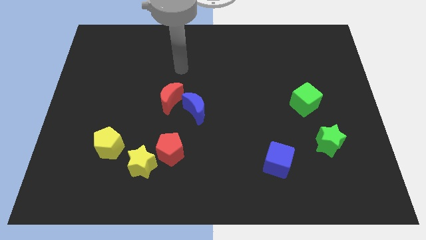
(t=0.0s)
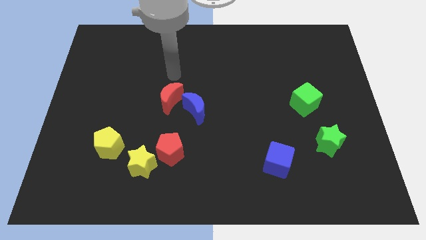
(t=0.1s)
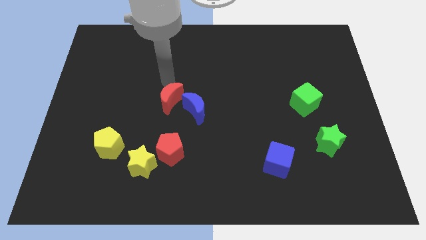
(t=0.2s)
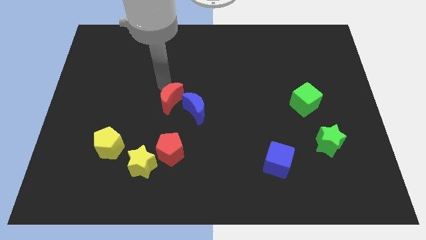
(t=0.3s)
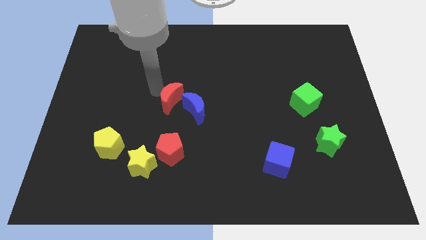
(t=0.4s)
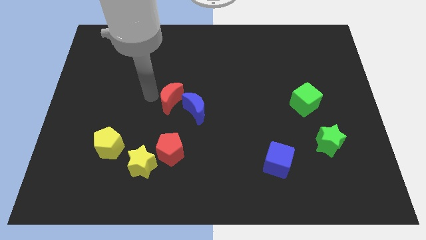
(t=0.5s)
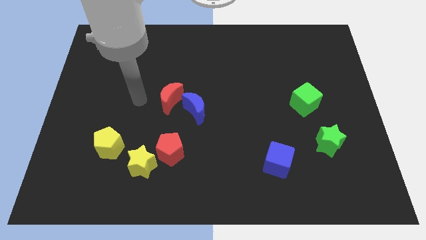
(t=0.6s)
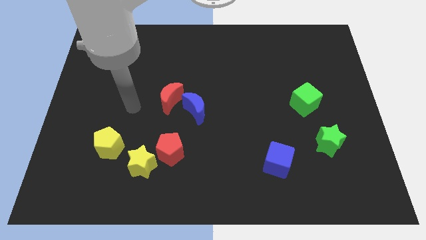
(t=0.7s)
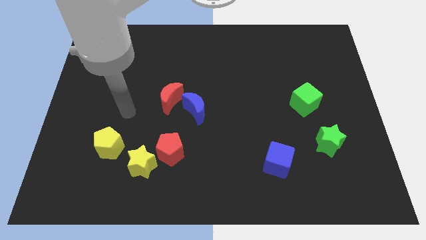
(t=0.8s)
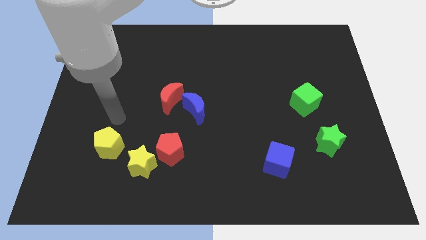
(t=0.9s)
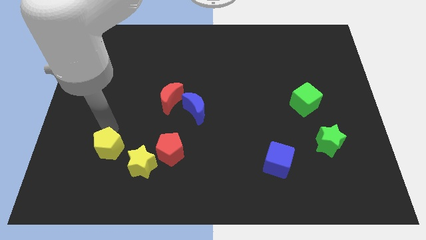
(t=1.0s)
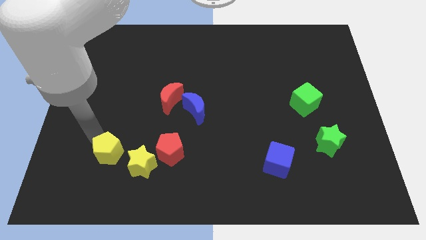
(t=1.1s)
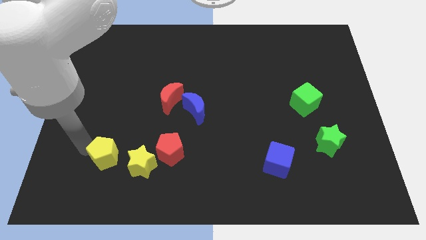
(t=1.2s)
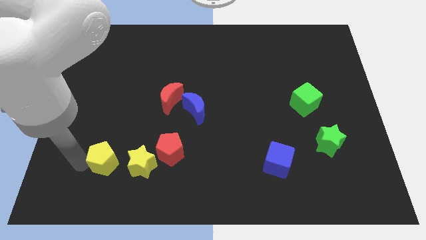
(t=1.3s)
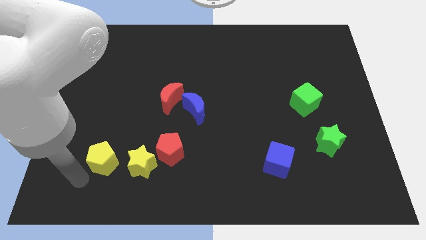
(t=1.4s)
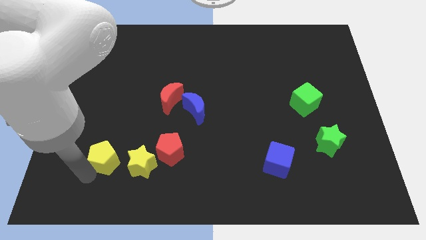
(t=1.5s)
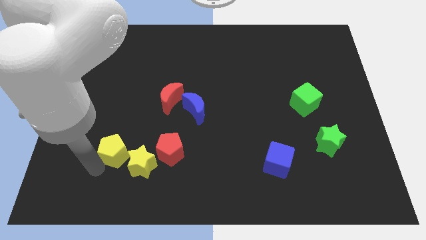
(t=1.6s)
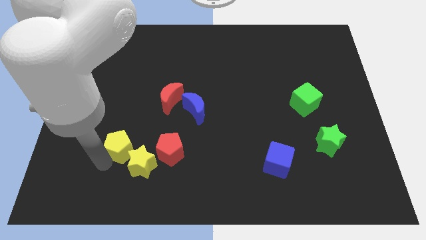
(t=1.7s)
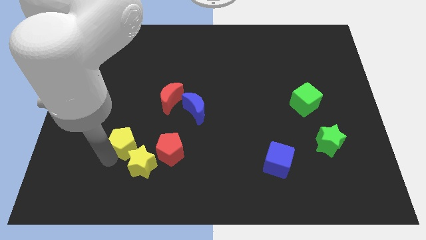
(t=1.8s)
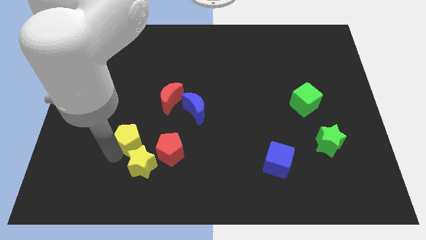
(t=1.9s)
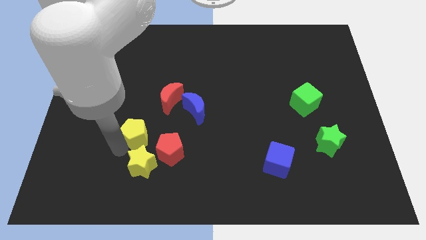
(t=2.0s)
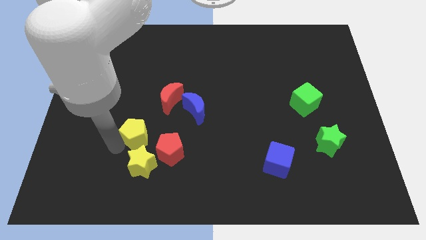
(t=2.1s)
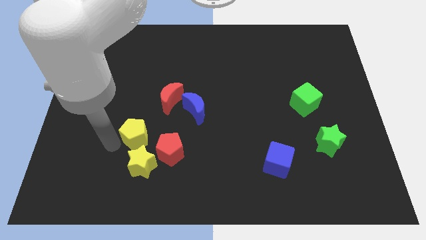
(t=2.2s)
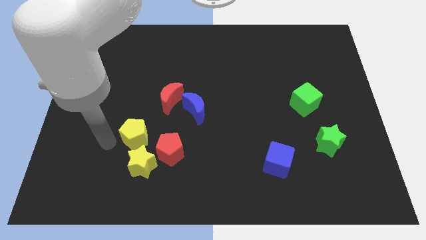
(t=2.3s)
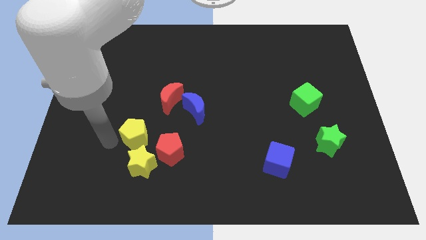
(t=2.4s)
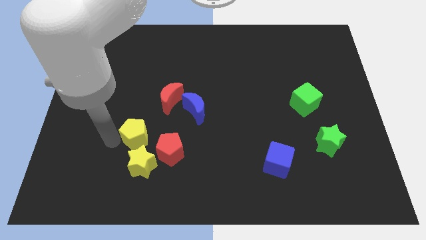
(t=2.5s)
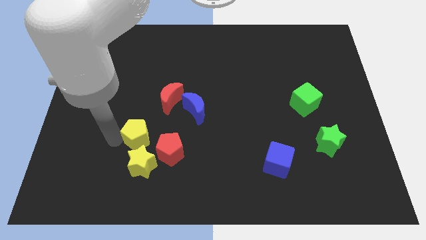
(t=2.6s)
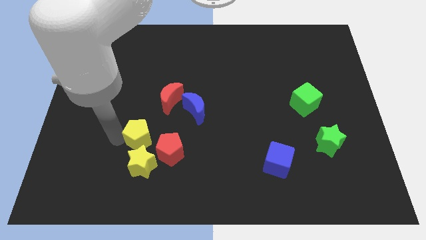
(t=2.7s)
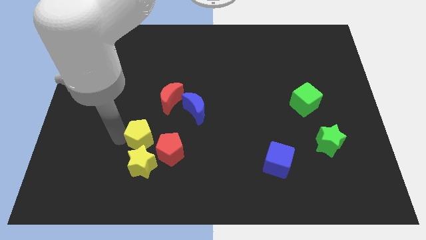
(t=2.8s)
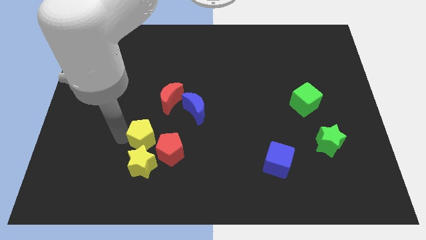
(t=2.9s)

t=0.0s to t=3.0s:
slightly slide the yellow pentagon to the right

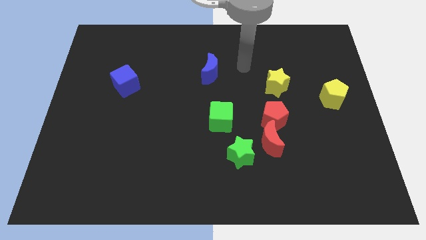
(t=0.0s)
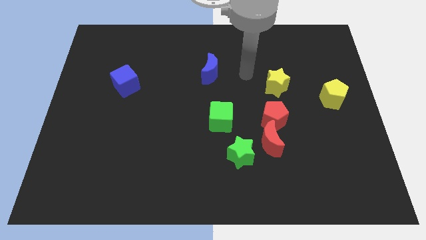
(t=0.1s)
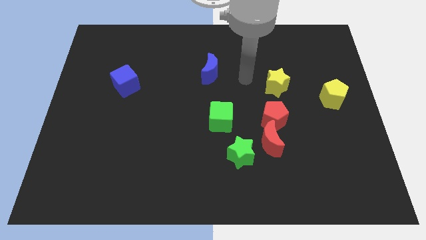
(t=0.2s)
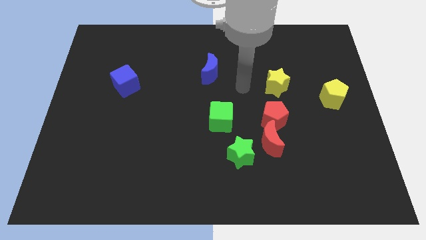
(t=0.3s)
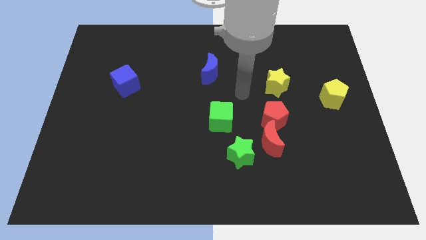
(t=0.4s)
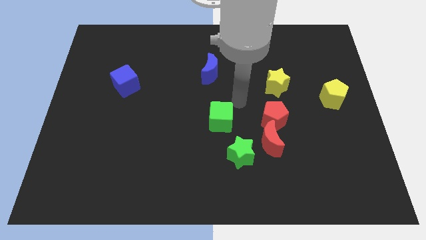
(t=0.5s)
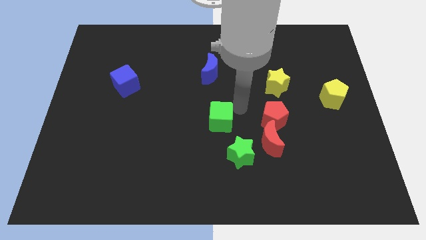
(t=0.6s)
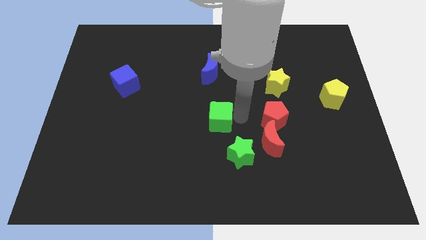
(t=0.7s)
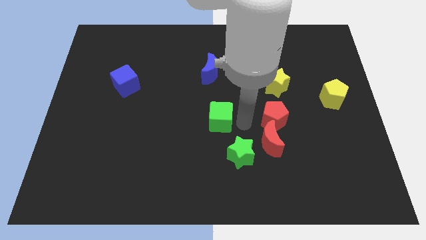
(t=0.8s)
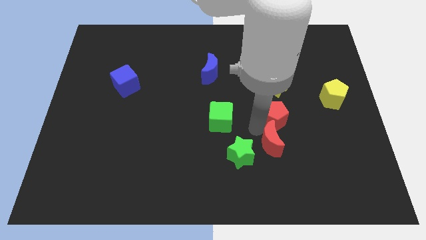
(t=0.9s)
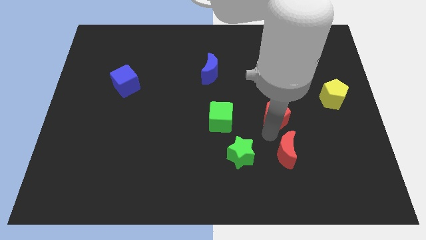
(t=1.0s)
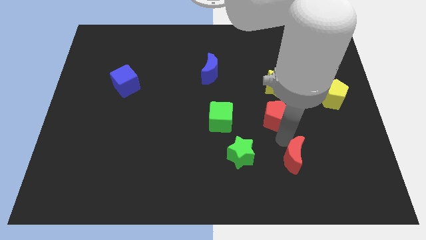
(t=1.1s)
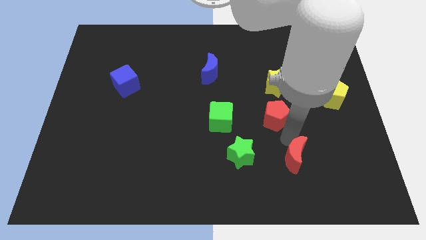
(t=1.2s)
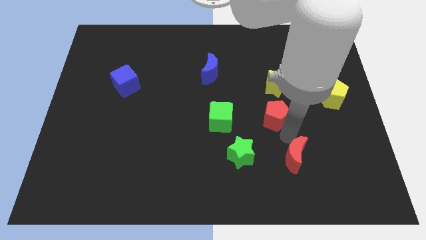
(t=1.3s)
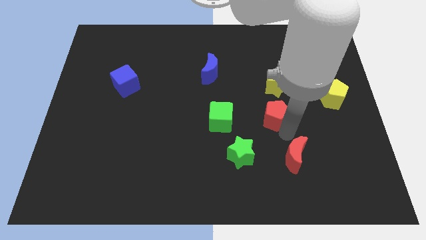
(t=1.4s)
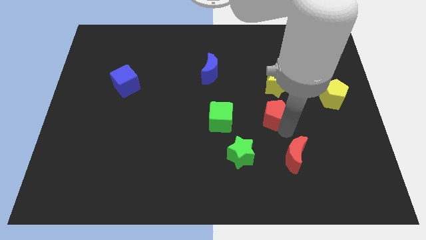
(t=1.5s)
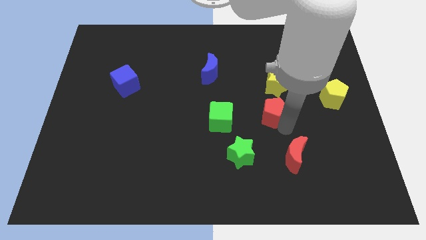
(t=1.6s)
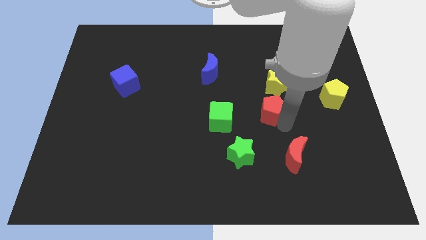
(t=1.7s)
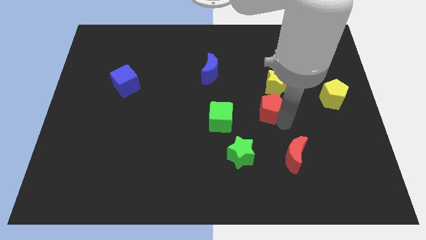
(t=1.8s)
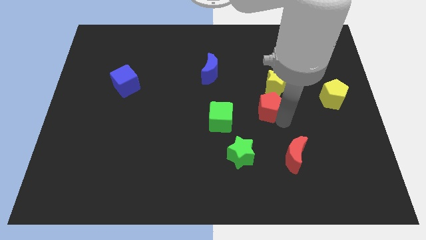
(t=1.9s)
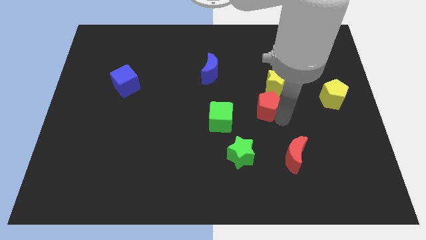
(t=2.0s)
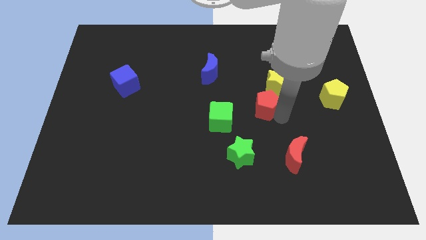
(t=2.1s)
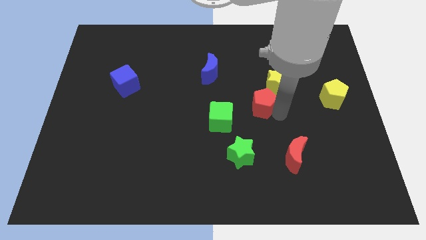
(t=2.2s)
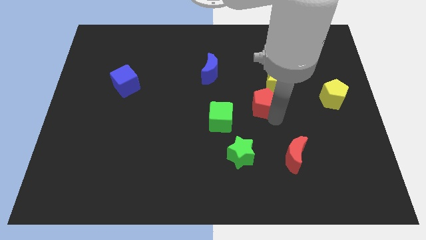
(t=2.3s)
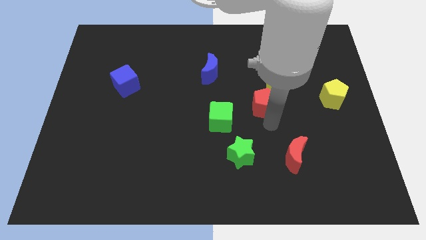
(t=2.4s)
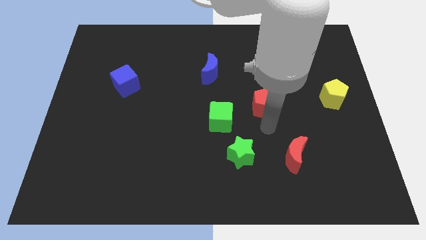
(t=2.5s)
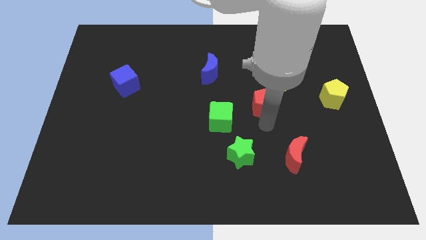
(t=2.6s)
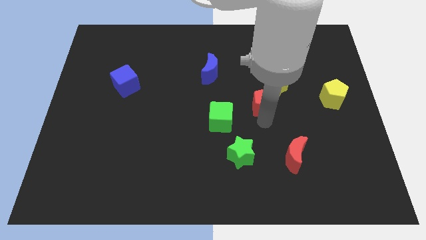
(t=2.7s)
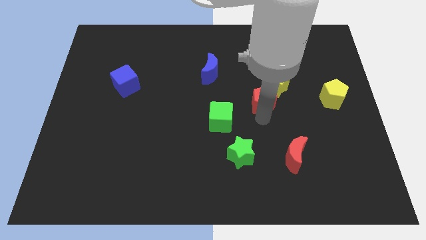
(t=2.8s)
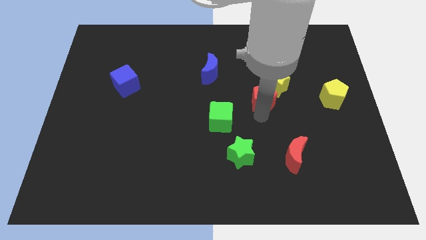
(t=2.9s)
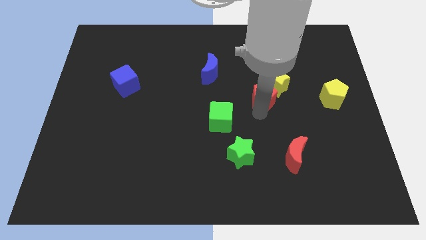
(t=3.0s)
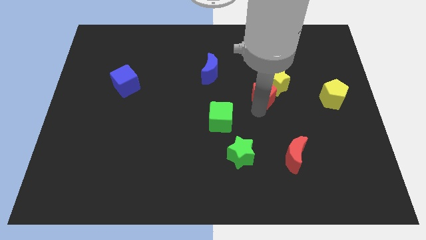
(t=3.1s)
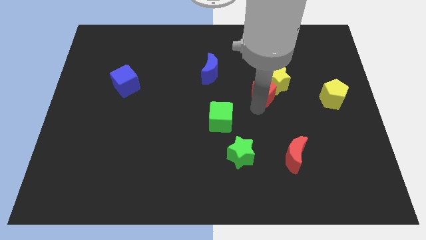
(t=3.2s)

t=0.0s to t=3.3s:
slide the red pentagon a bit up

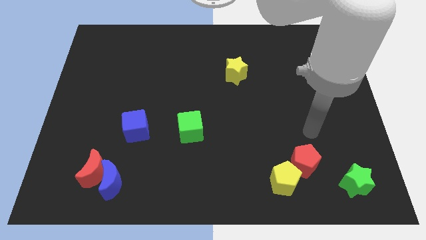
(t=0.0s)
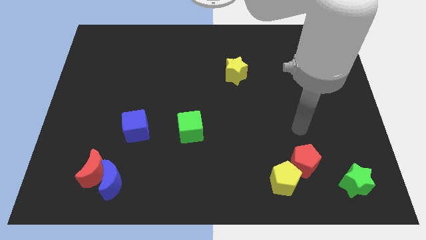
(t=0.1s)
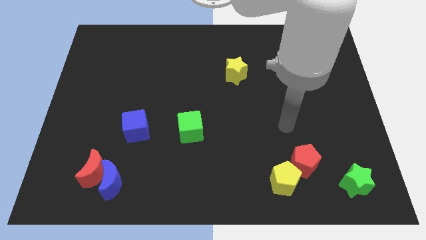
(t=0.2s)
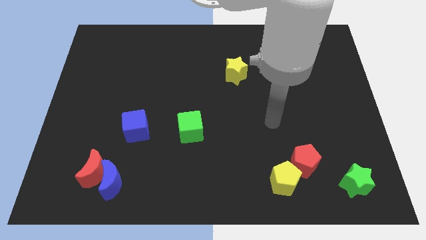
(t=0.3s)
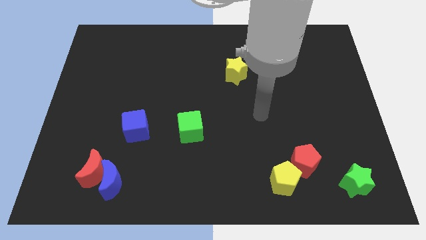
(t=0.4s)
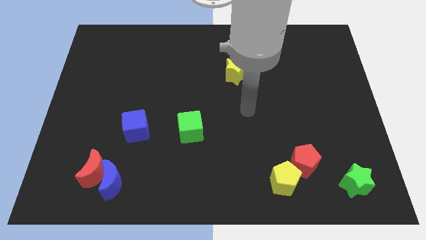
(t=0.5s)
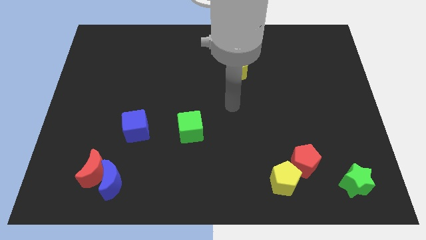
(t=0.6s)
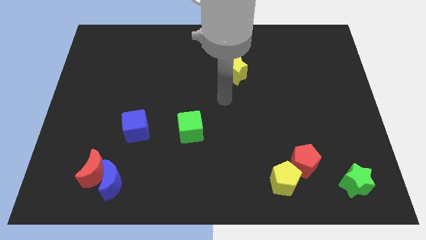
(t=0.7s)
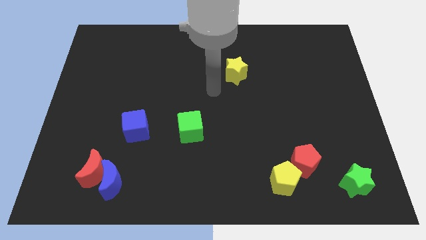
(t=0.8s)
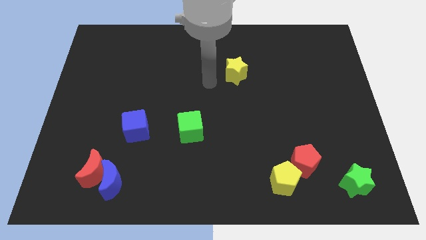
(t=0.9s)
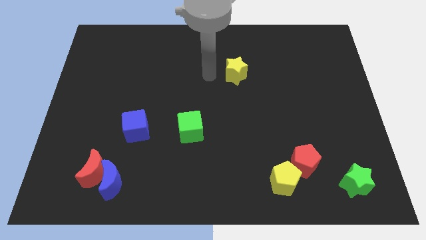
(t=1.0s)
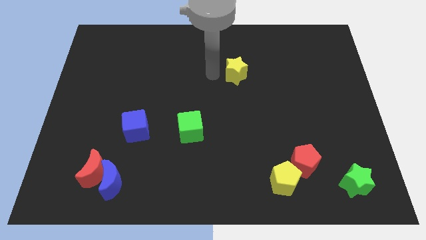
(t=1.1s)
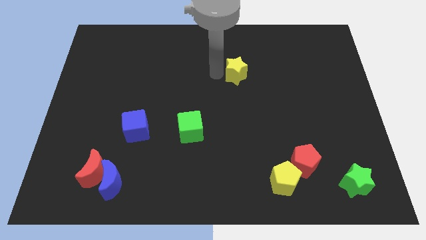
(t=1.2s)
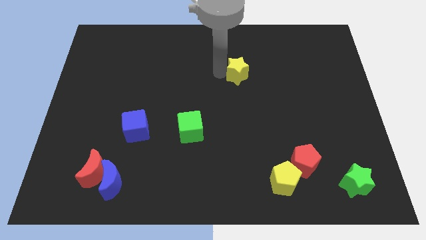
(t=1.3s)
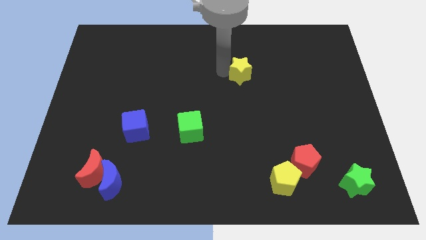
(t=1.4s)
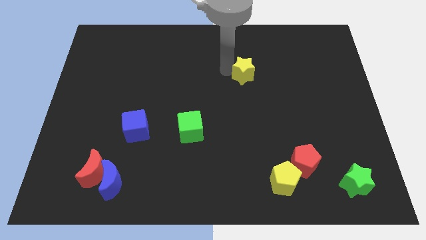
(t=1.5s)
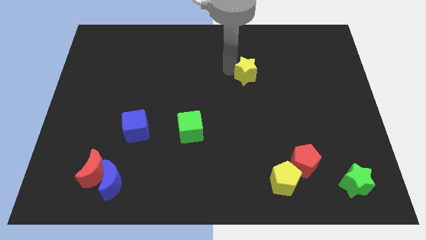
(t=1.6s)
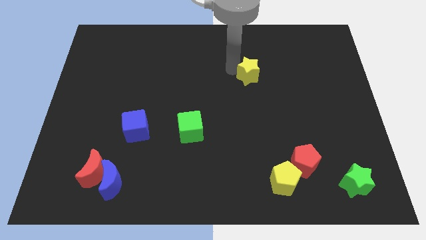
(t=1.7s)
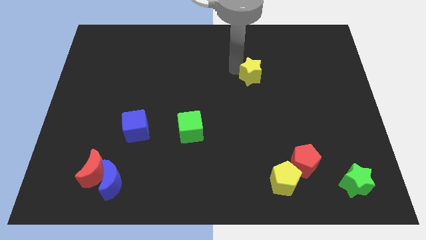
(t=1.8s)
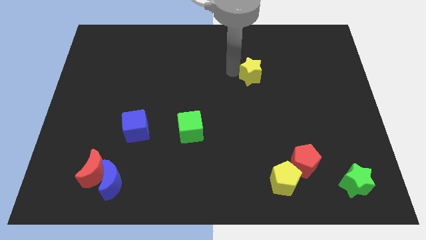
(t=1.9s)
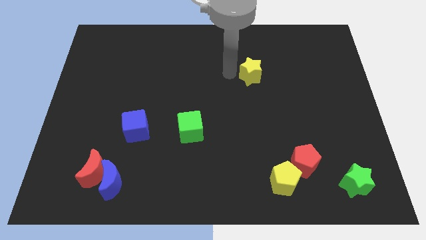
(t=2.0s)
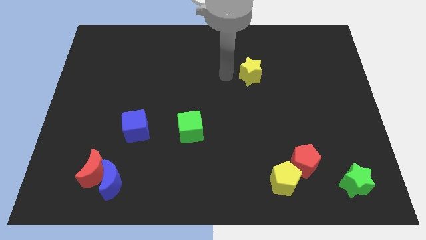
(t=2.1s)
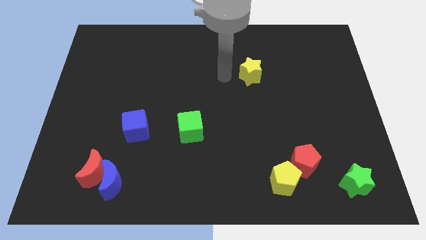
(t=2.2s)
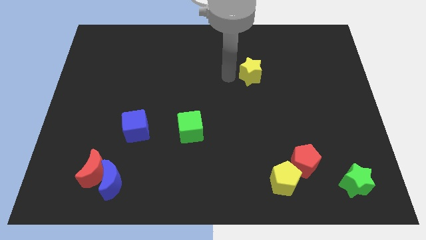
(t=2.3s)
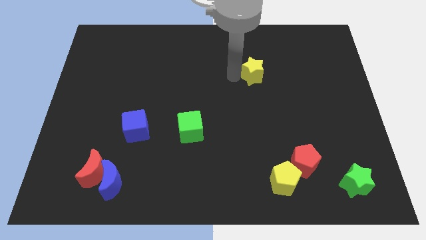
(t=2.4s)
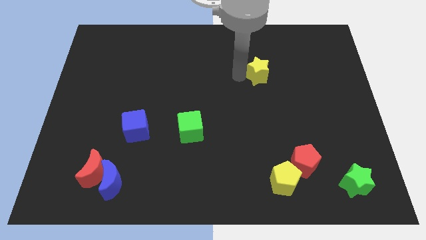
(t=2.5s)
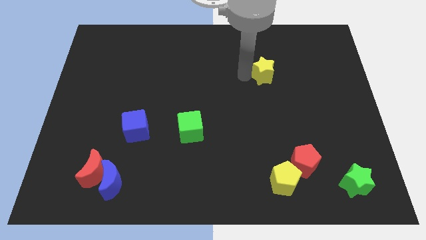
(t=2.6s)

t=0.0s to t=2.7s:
move the yellow star a little bit to the right
